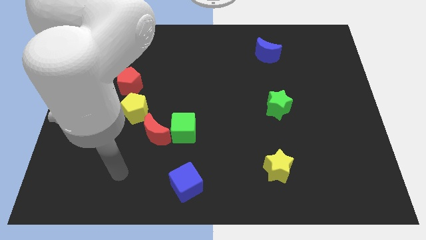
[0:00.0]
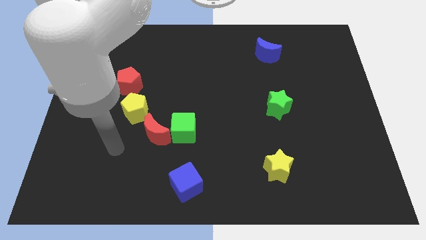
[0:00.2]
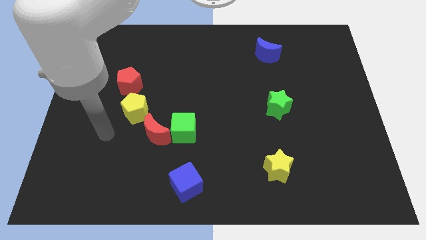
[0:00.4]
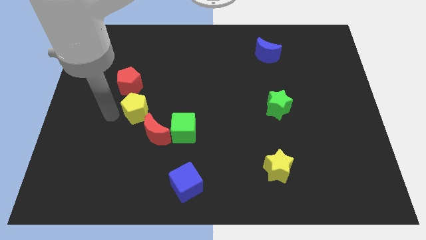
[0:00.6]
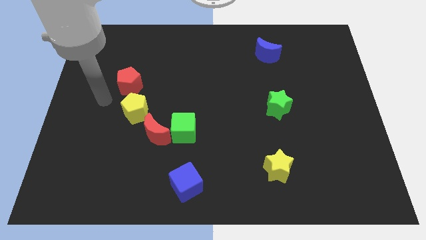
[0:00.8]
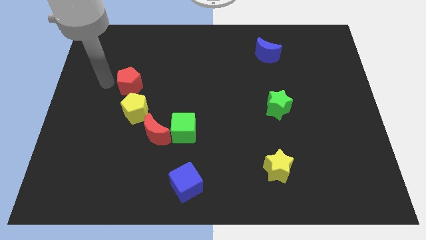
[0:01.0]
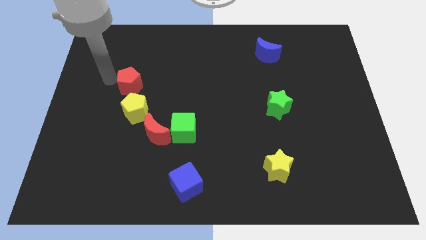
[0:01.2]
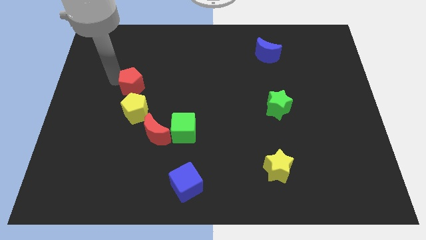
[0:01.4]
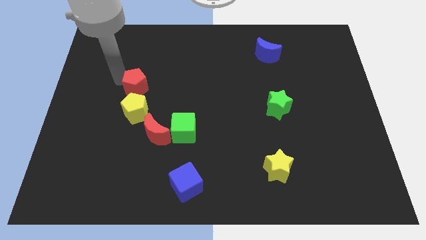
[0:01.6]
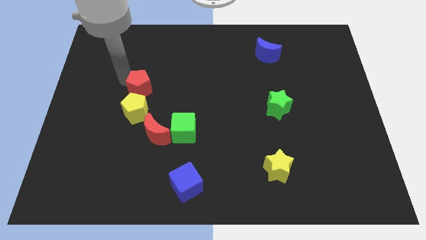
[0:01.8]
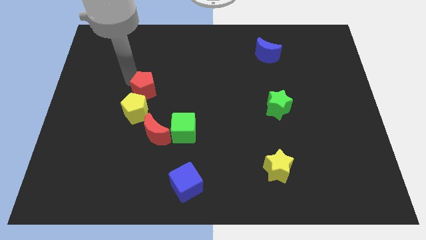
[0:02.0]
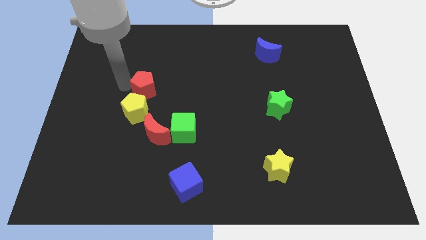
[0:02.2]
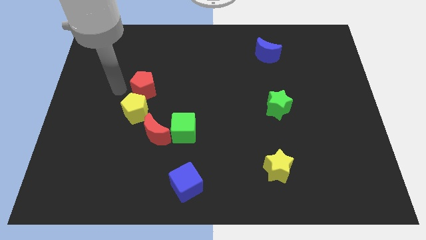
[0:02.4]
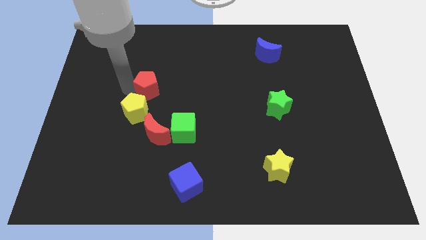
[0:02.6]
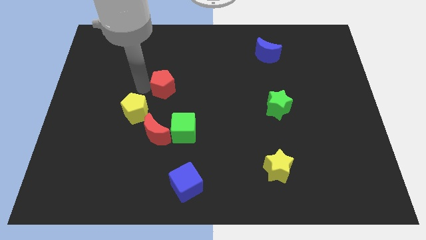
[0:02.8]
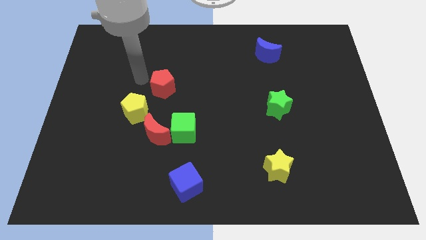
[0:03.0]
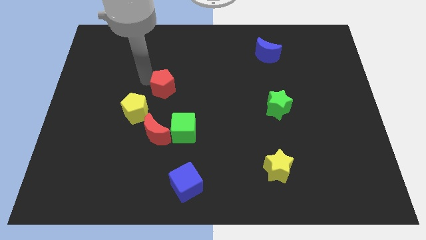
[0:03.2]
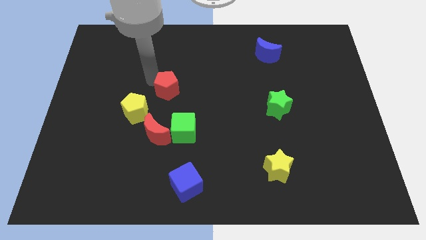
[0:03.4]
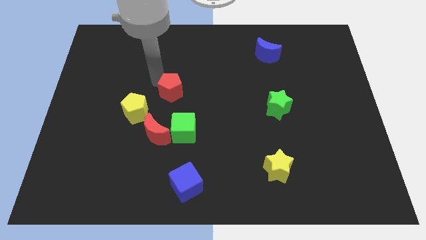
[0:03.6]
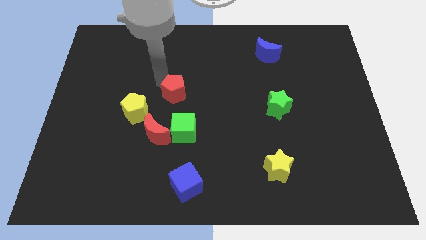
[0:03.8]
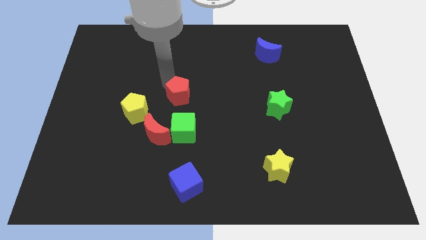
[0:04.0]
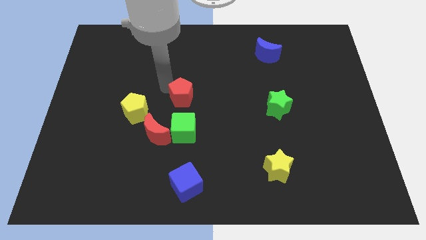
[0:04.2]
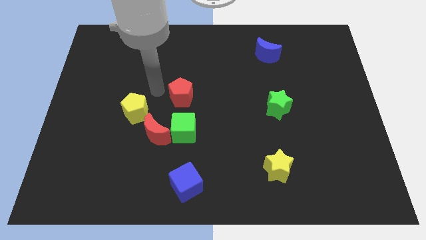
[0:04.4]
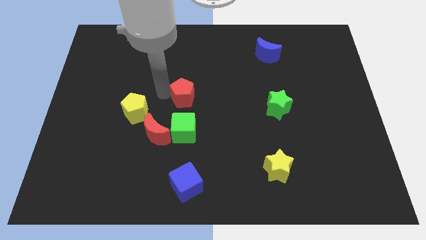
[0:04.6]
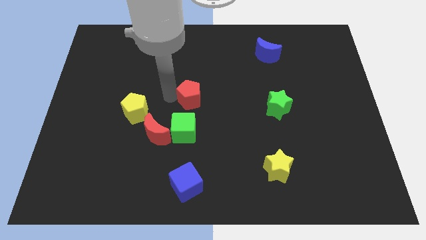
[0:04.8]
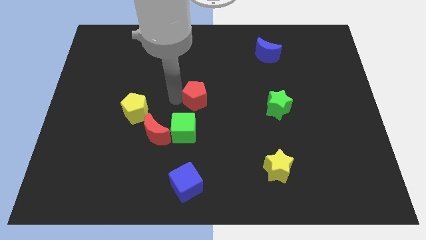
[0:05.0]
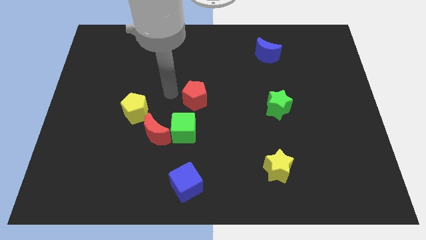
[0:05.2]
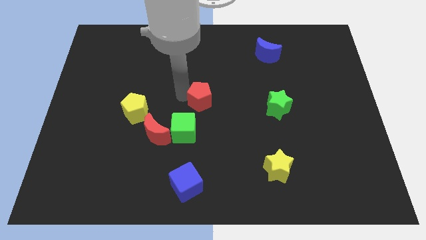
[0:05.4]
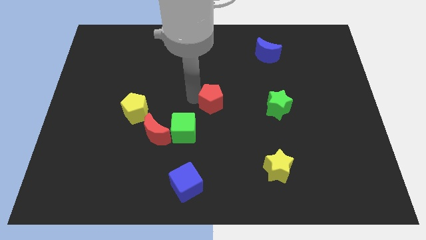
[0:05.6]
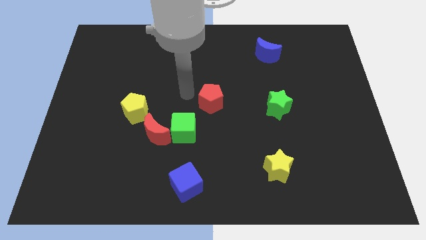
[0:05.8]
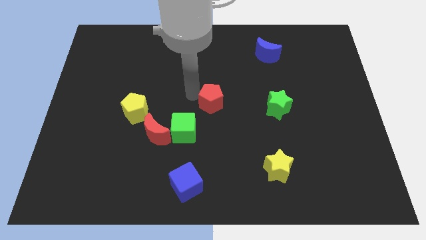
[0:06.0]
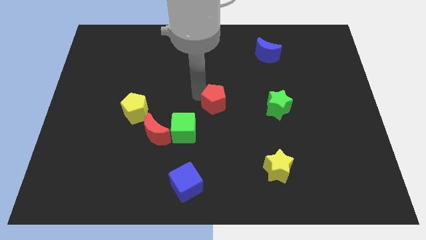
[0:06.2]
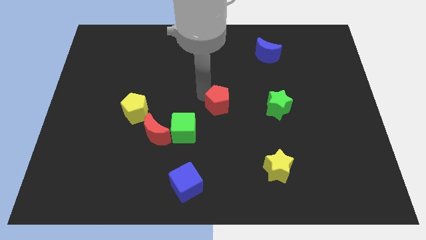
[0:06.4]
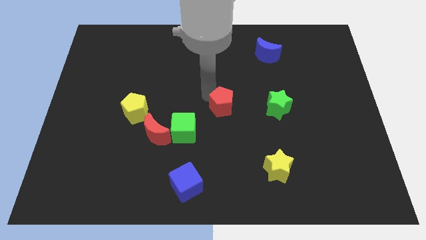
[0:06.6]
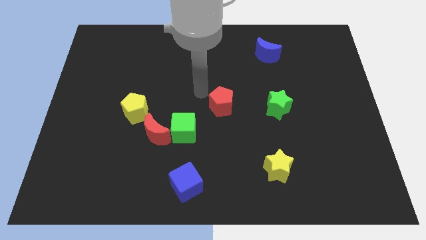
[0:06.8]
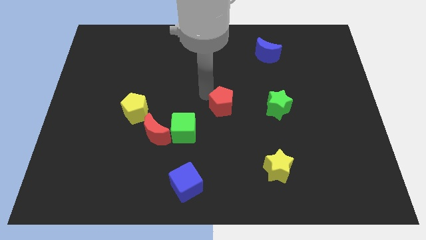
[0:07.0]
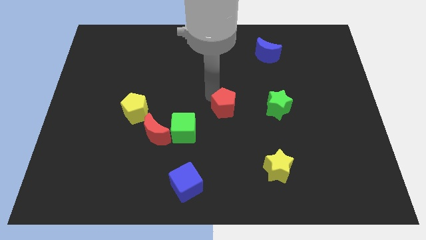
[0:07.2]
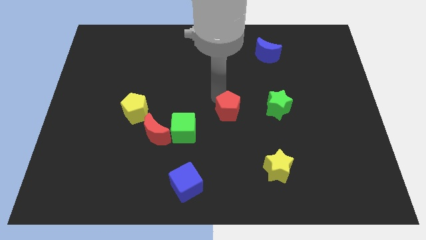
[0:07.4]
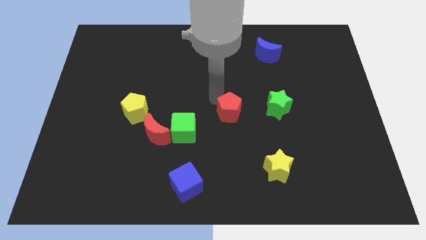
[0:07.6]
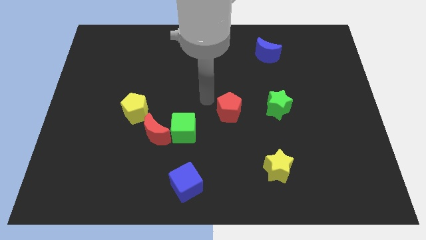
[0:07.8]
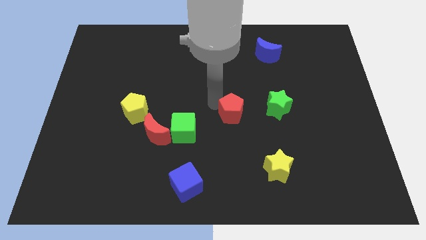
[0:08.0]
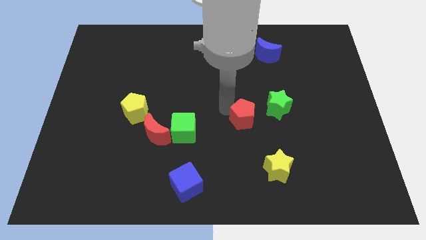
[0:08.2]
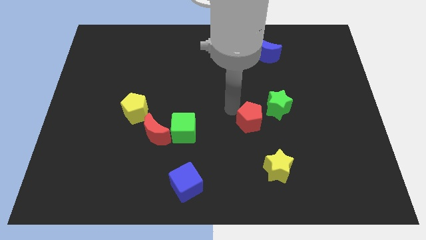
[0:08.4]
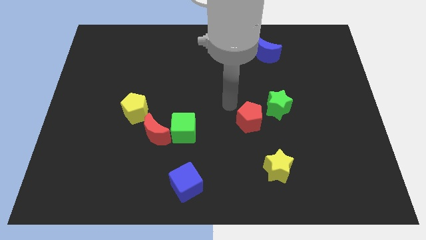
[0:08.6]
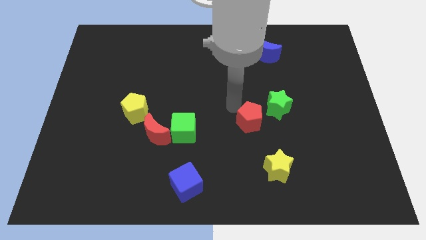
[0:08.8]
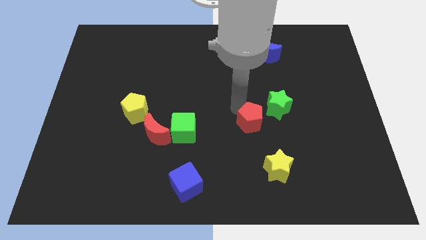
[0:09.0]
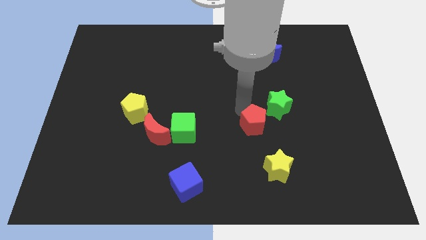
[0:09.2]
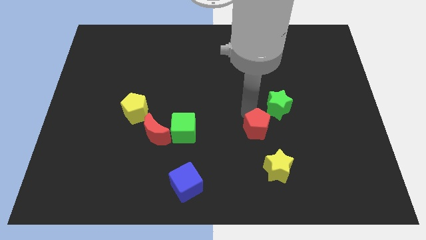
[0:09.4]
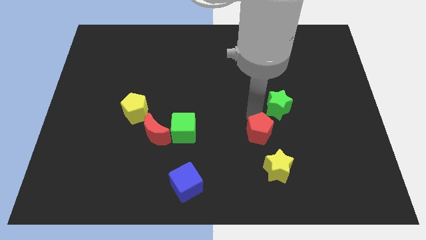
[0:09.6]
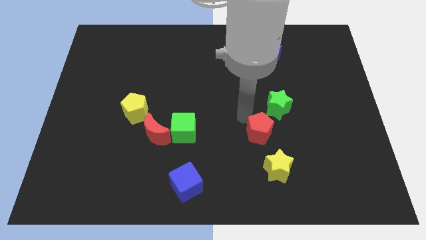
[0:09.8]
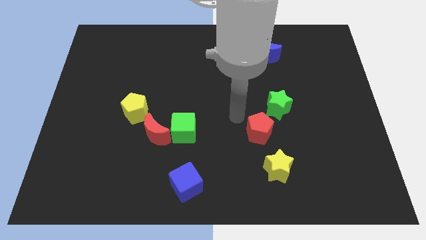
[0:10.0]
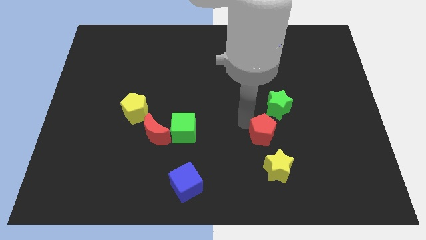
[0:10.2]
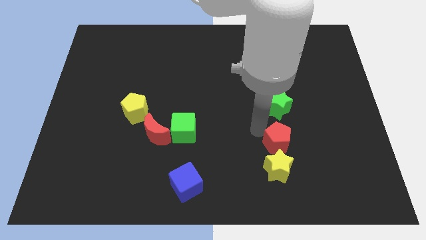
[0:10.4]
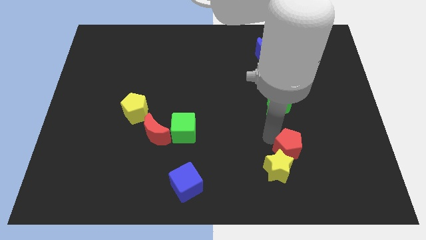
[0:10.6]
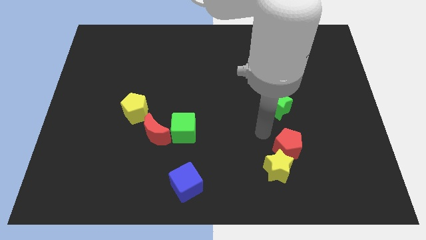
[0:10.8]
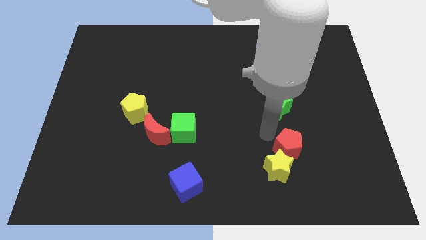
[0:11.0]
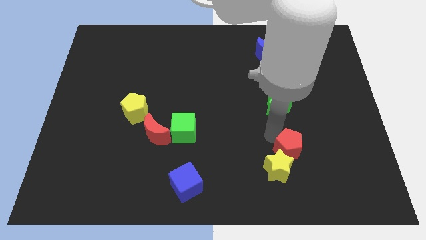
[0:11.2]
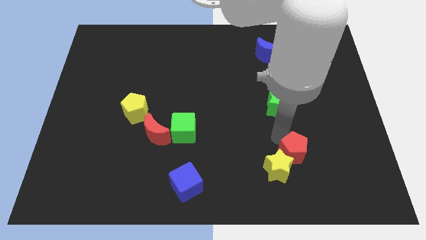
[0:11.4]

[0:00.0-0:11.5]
push the red pentagon to the right side of the yellow star

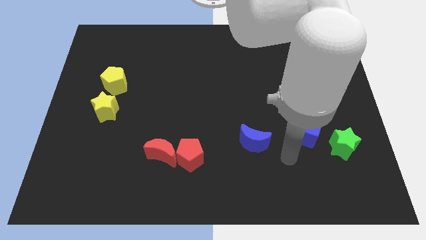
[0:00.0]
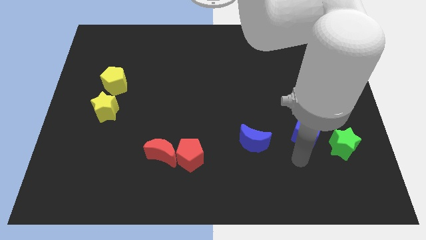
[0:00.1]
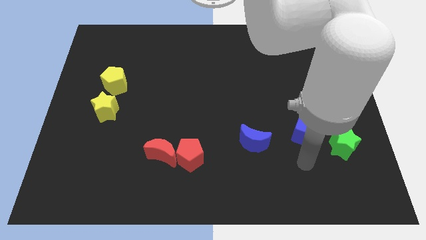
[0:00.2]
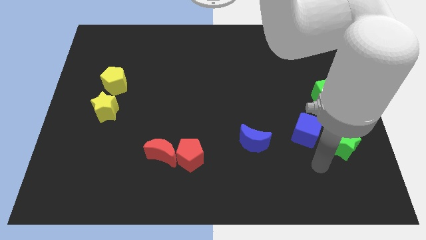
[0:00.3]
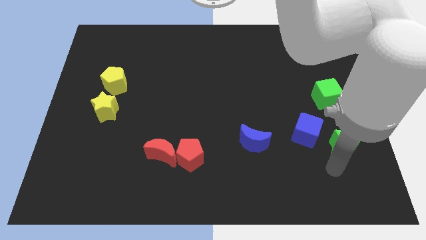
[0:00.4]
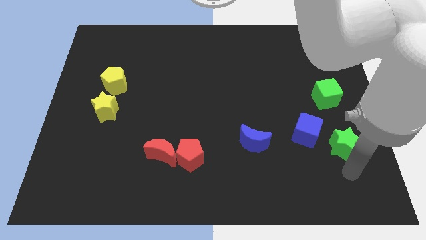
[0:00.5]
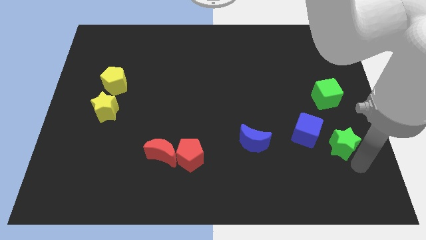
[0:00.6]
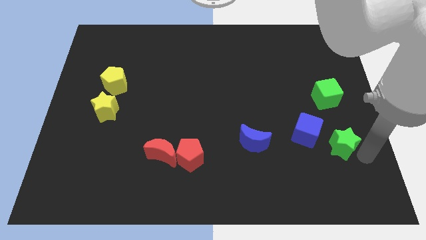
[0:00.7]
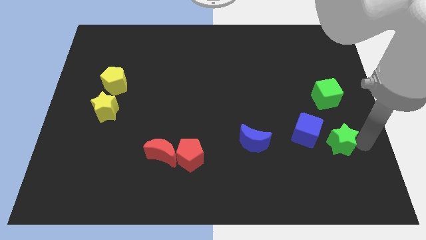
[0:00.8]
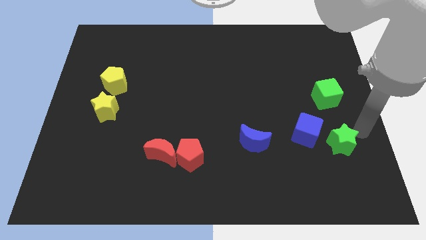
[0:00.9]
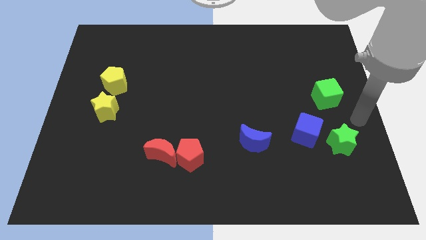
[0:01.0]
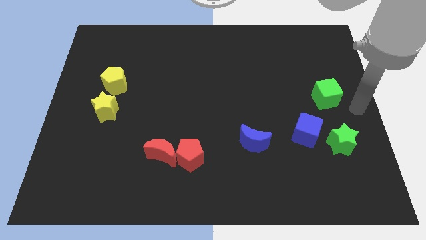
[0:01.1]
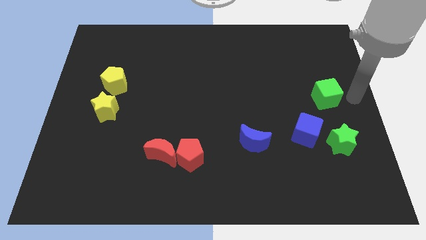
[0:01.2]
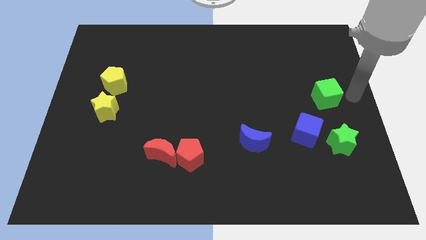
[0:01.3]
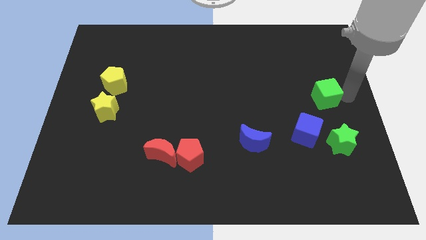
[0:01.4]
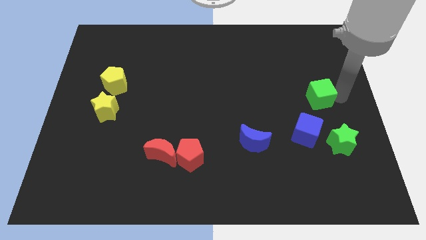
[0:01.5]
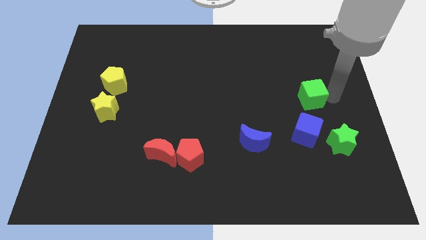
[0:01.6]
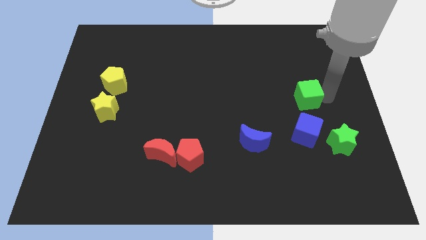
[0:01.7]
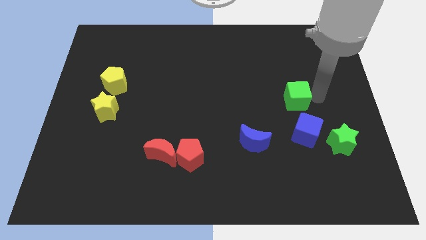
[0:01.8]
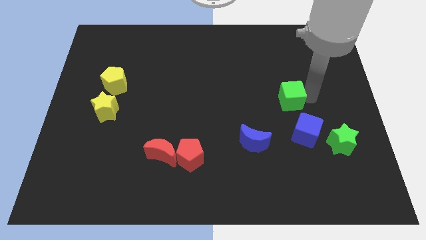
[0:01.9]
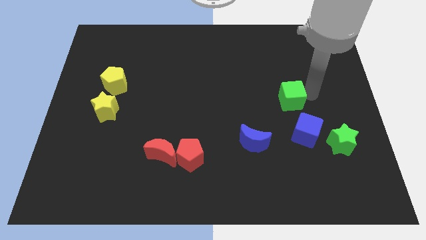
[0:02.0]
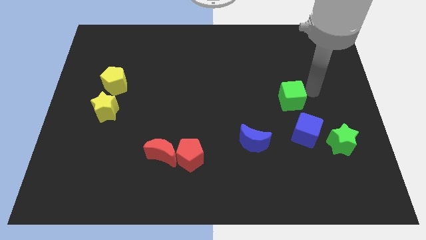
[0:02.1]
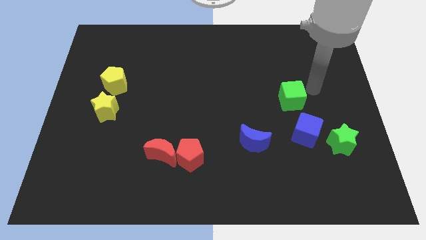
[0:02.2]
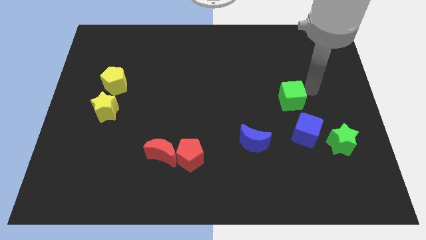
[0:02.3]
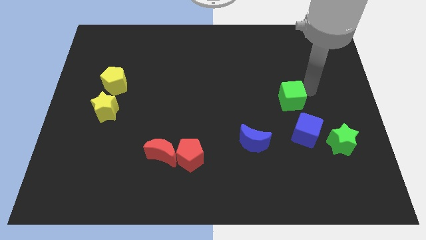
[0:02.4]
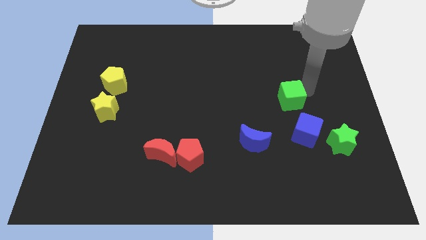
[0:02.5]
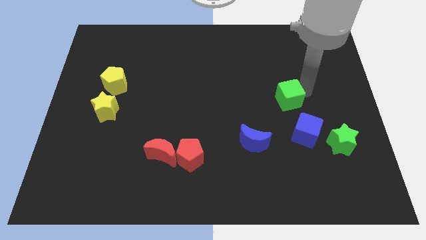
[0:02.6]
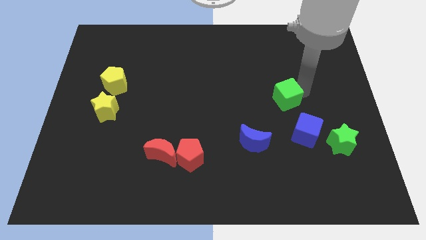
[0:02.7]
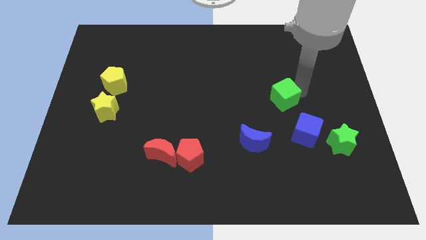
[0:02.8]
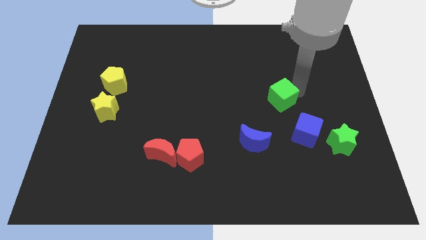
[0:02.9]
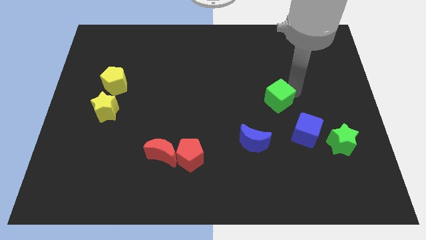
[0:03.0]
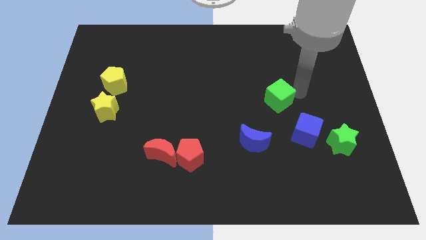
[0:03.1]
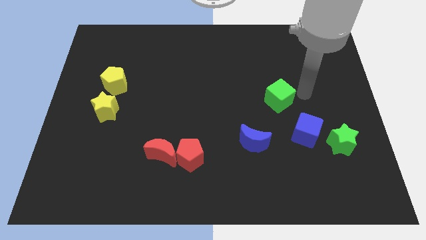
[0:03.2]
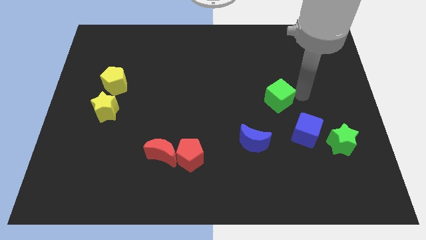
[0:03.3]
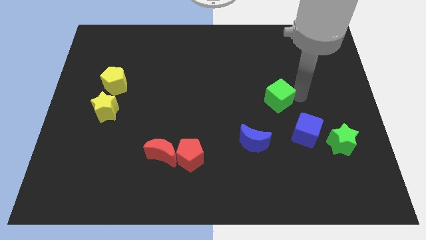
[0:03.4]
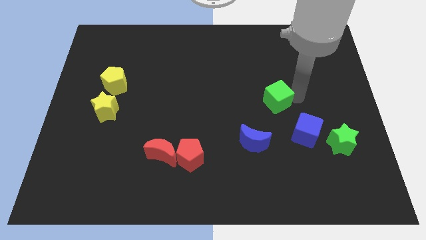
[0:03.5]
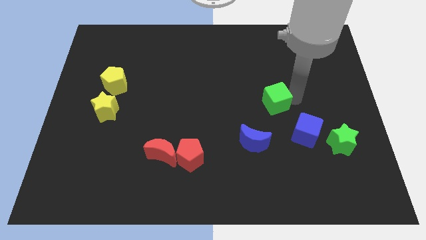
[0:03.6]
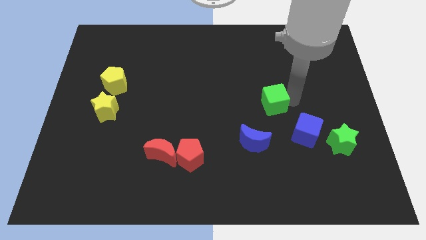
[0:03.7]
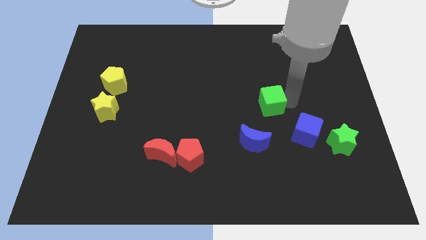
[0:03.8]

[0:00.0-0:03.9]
push the green cube above the blue moon
